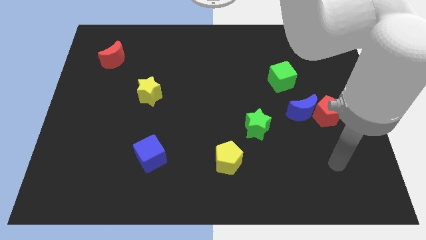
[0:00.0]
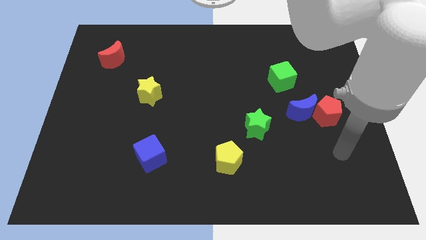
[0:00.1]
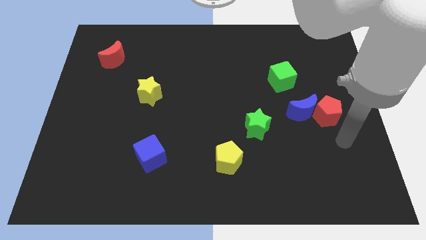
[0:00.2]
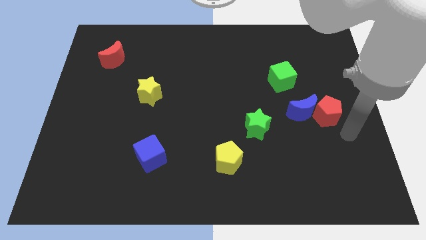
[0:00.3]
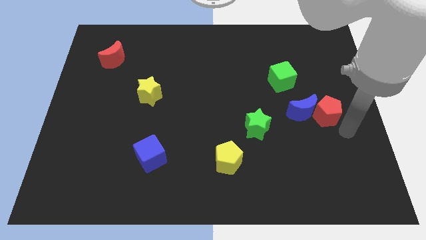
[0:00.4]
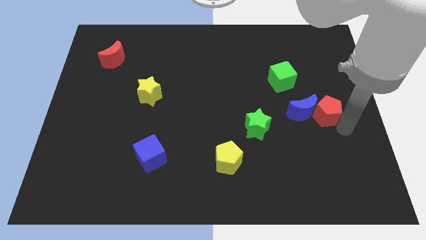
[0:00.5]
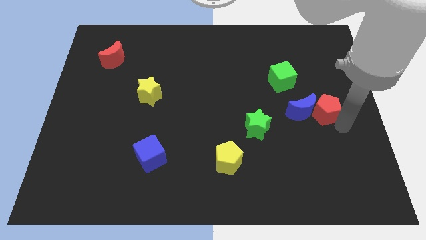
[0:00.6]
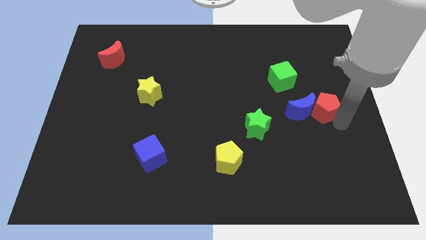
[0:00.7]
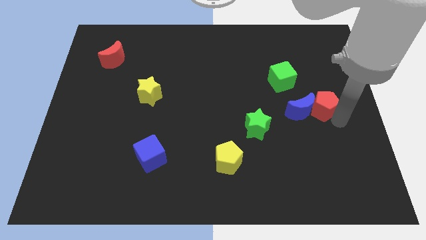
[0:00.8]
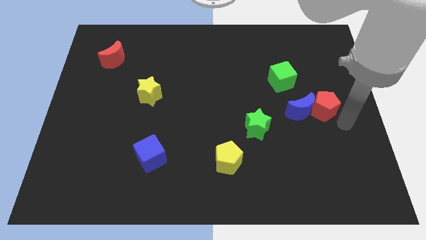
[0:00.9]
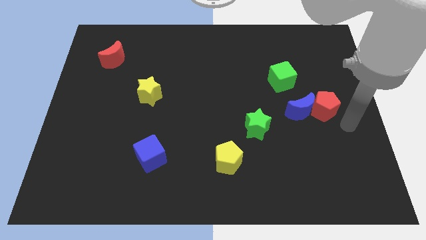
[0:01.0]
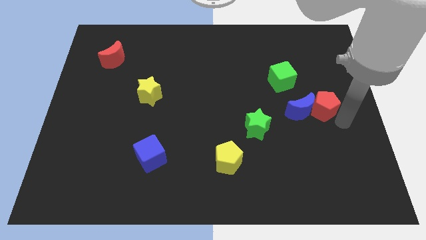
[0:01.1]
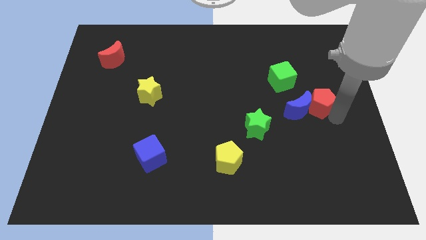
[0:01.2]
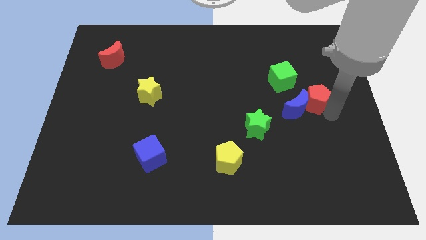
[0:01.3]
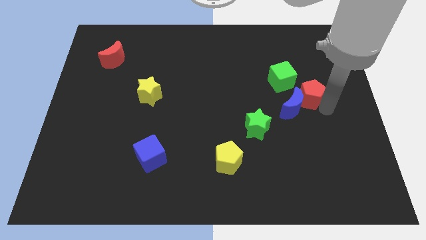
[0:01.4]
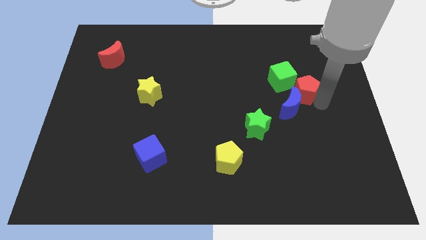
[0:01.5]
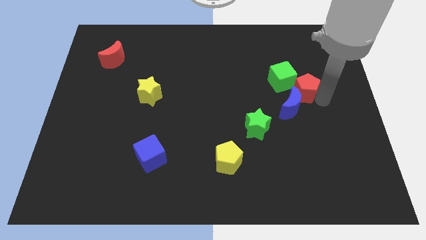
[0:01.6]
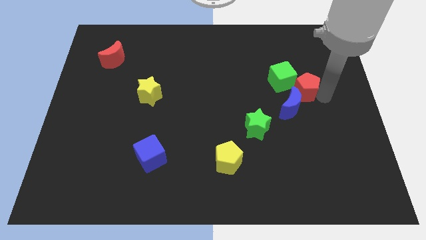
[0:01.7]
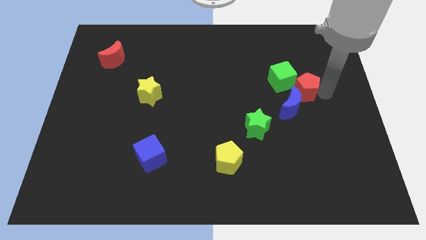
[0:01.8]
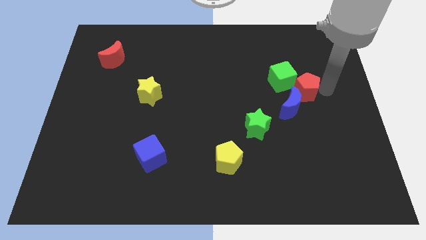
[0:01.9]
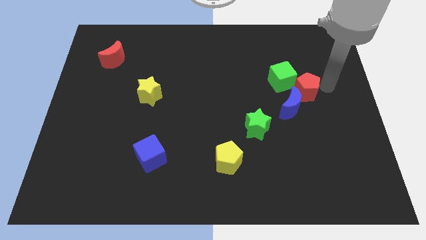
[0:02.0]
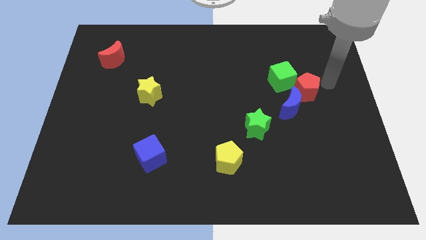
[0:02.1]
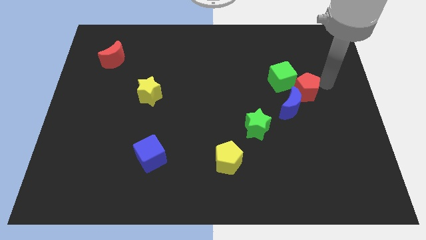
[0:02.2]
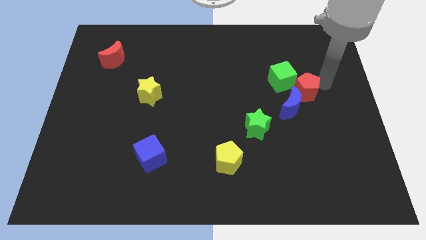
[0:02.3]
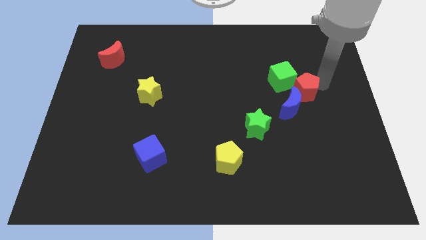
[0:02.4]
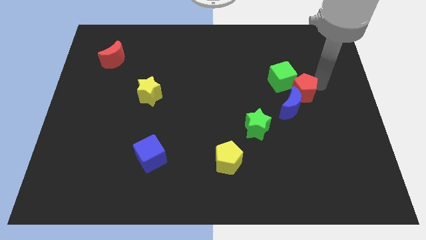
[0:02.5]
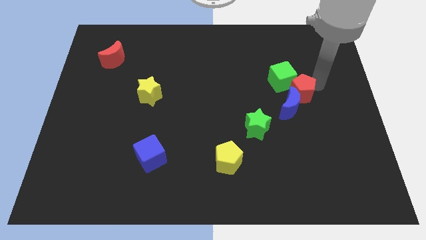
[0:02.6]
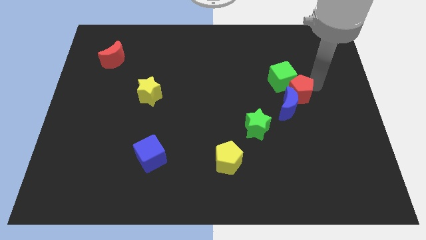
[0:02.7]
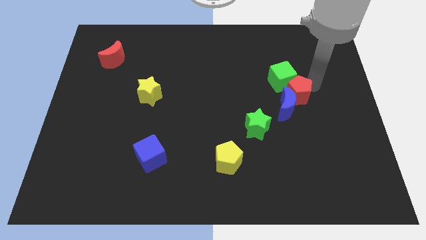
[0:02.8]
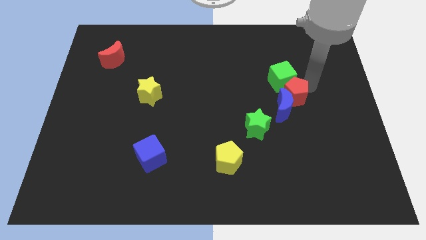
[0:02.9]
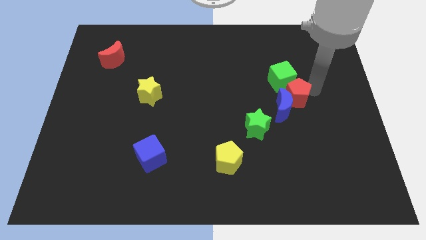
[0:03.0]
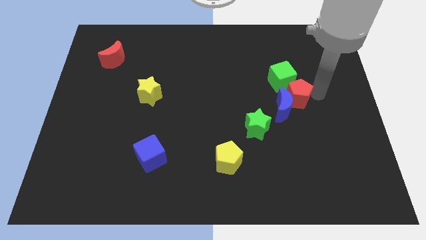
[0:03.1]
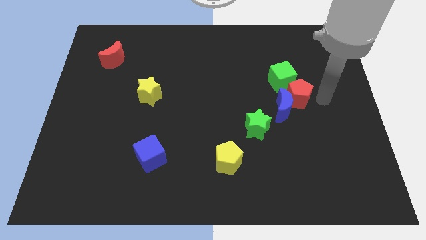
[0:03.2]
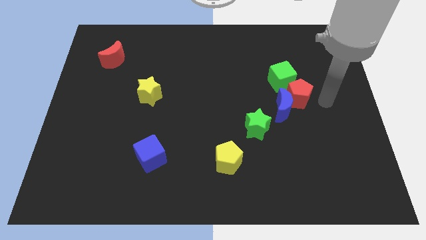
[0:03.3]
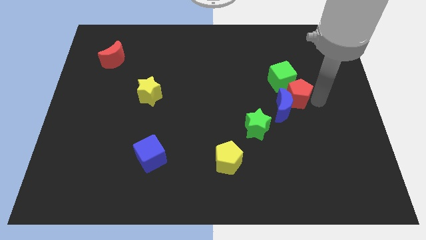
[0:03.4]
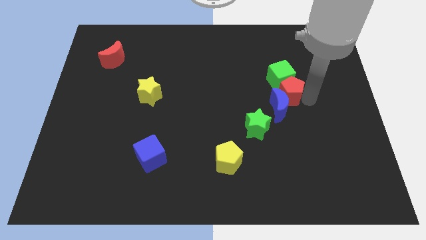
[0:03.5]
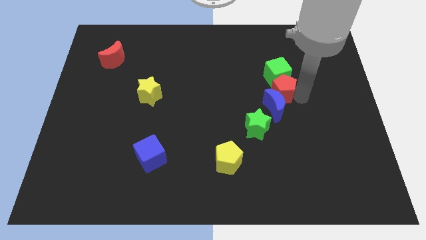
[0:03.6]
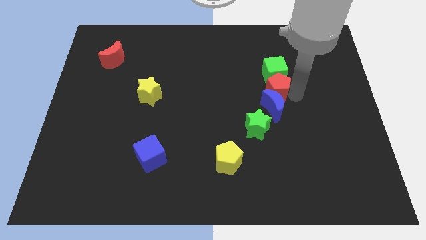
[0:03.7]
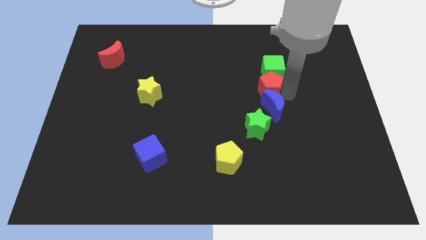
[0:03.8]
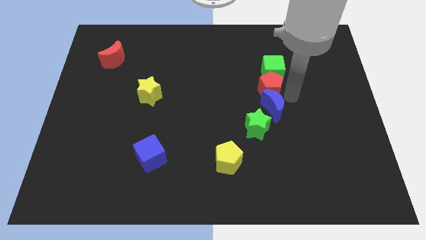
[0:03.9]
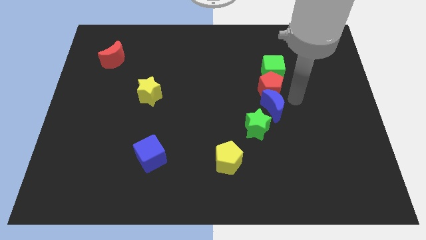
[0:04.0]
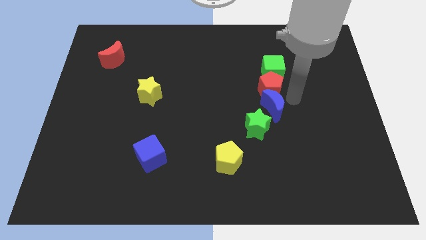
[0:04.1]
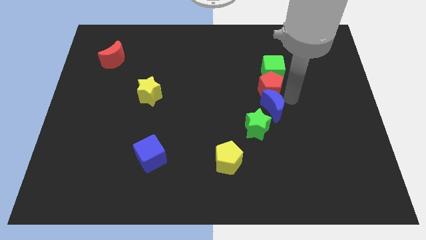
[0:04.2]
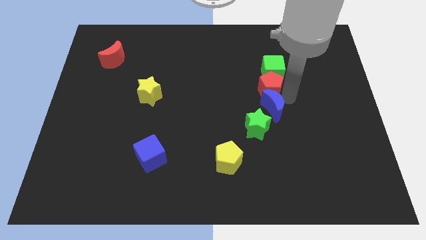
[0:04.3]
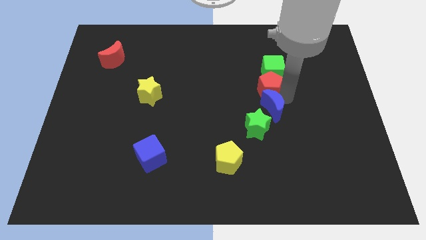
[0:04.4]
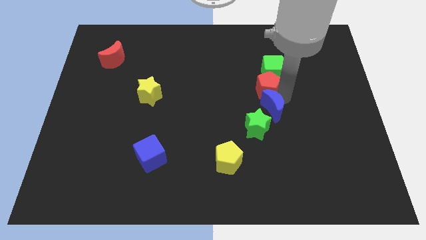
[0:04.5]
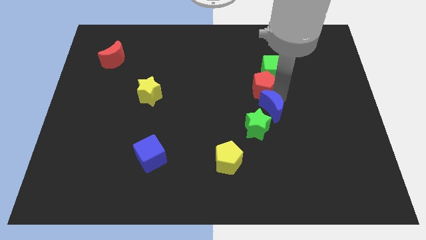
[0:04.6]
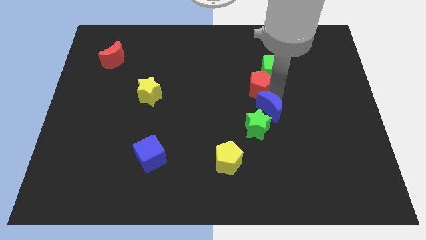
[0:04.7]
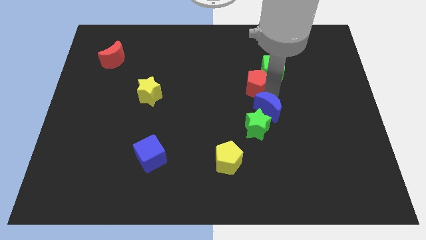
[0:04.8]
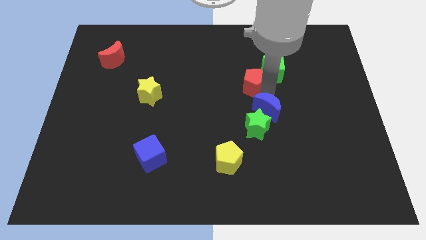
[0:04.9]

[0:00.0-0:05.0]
put the red pentagon to the left side of the green cube

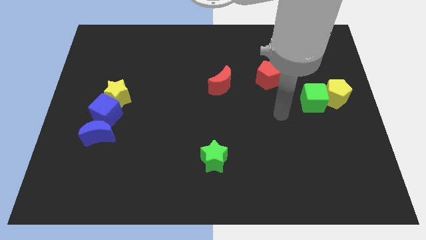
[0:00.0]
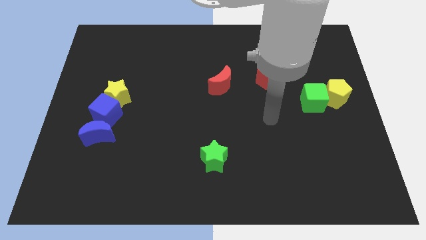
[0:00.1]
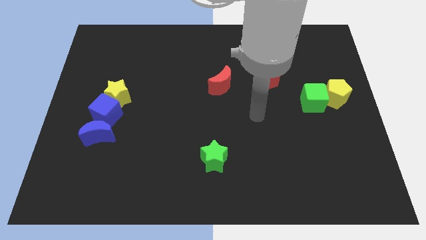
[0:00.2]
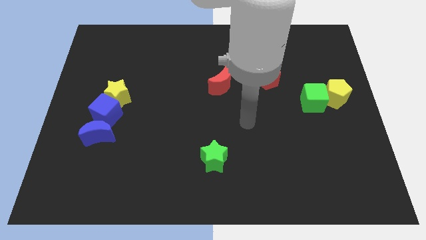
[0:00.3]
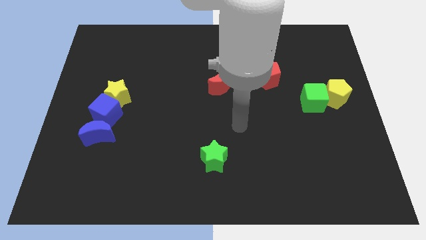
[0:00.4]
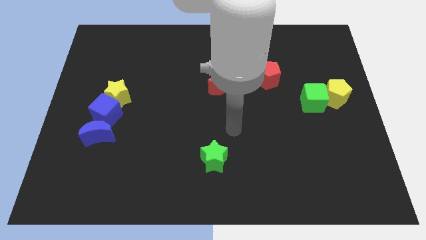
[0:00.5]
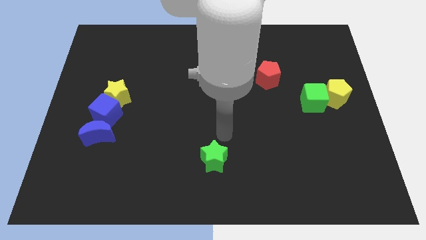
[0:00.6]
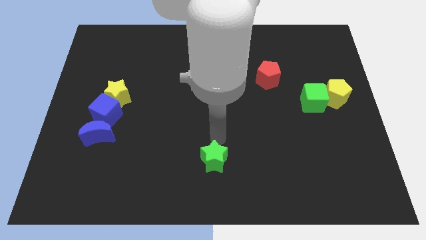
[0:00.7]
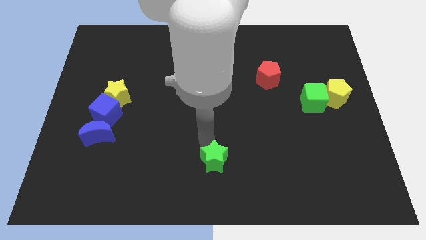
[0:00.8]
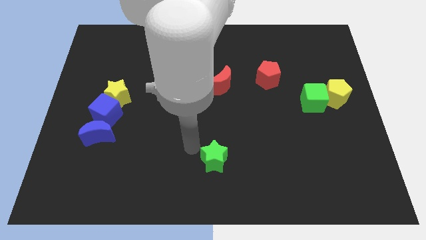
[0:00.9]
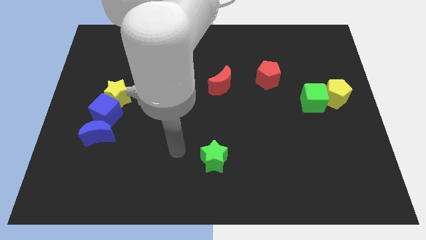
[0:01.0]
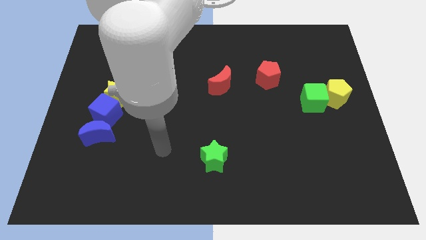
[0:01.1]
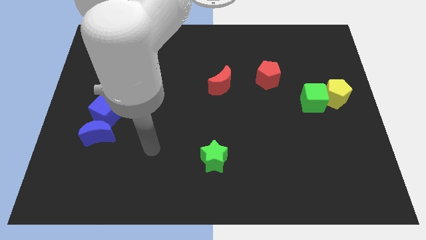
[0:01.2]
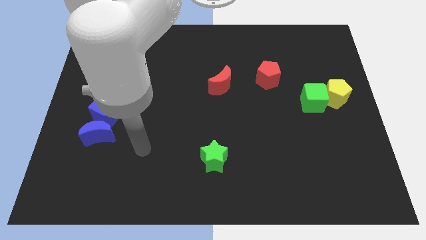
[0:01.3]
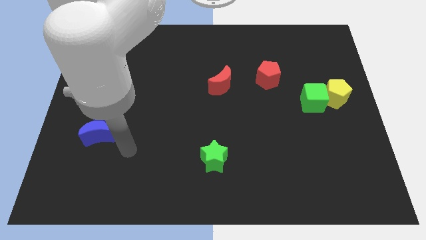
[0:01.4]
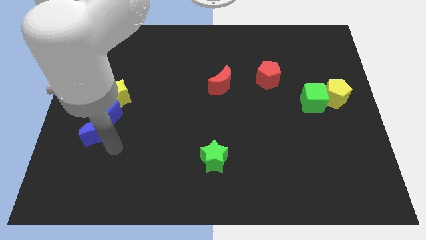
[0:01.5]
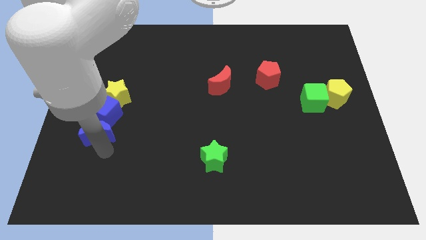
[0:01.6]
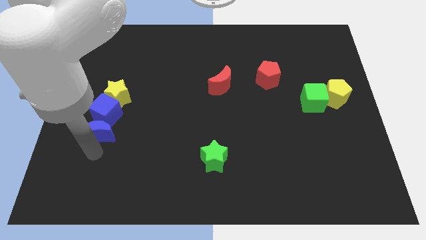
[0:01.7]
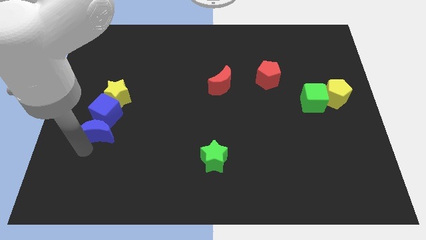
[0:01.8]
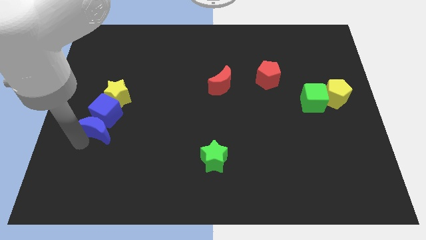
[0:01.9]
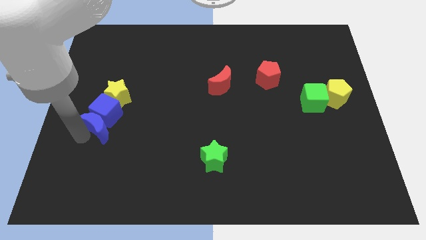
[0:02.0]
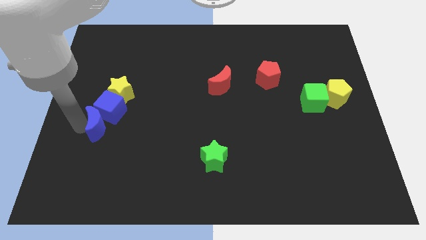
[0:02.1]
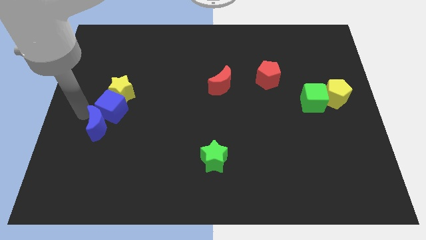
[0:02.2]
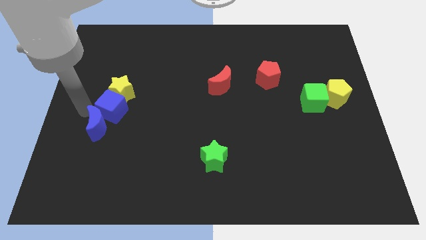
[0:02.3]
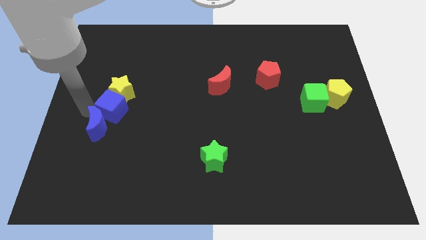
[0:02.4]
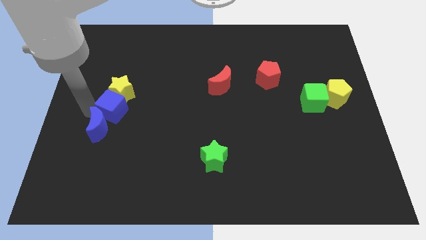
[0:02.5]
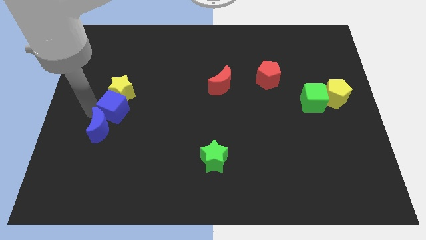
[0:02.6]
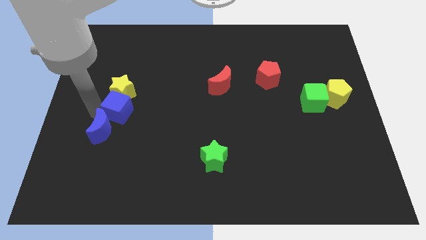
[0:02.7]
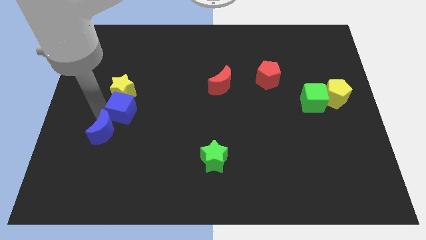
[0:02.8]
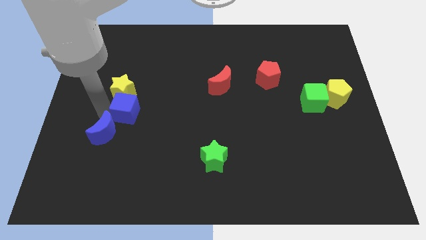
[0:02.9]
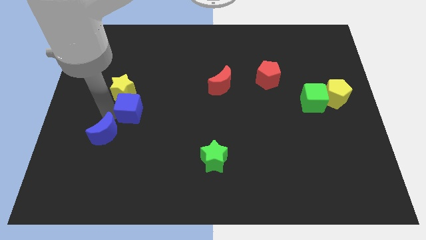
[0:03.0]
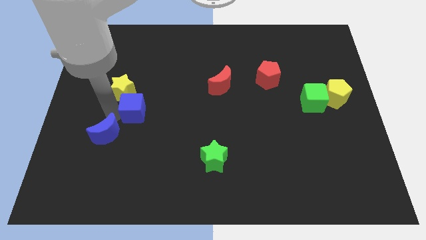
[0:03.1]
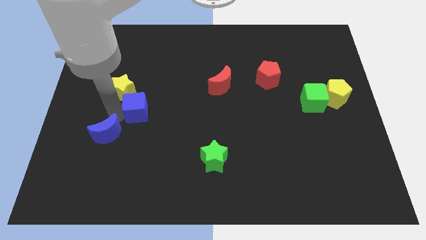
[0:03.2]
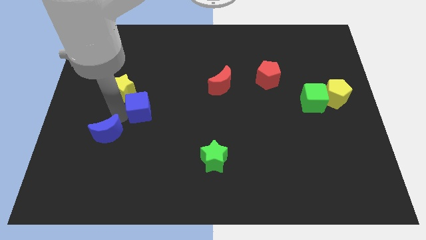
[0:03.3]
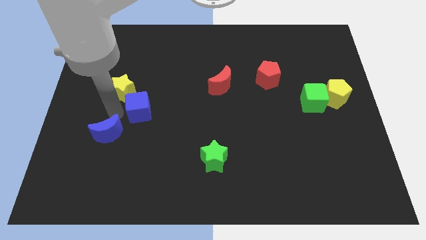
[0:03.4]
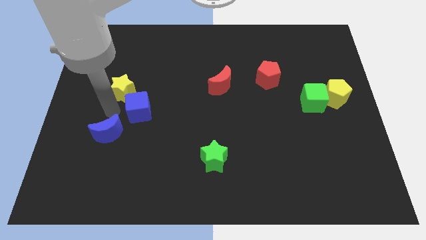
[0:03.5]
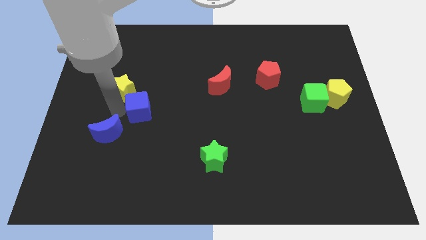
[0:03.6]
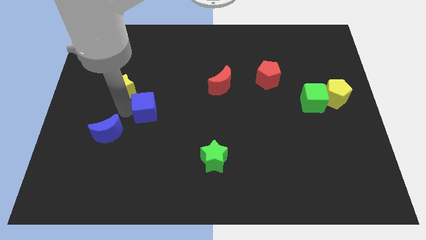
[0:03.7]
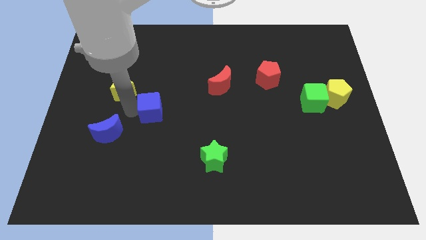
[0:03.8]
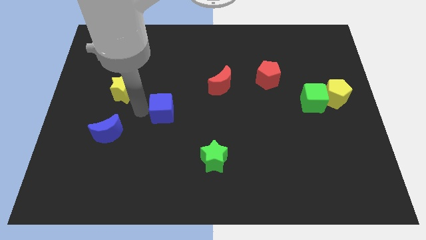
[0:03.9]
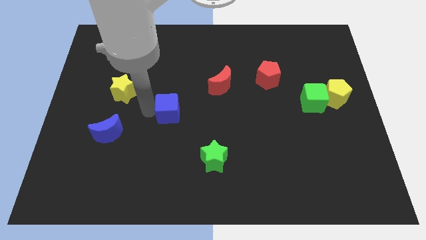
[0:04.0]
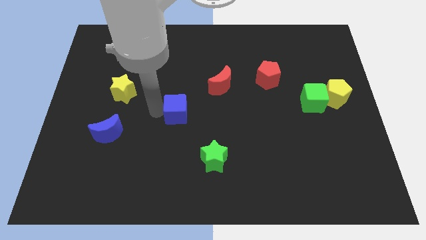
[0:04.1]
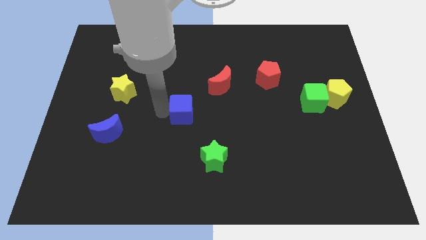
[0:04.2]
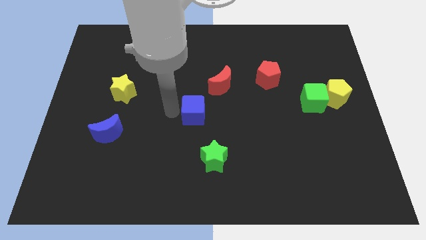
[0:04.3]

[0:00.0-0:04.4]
move the blue cube to the top side of the green star
